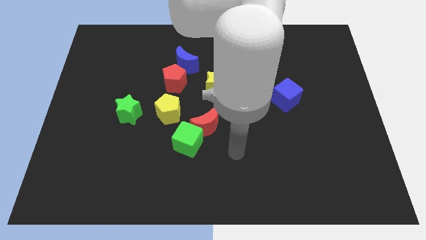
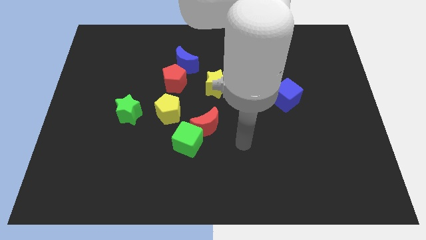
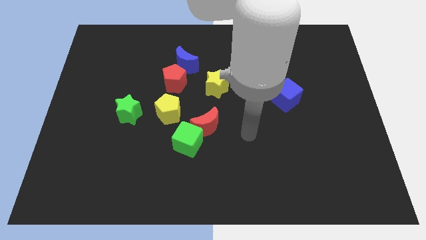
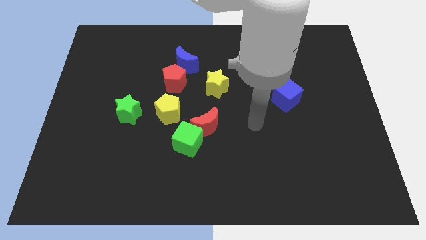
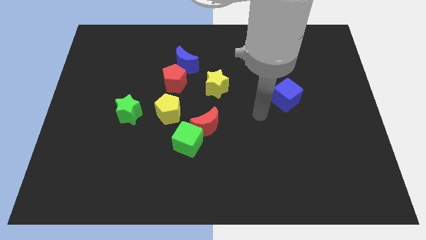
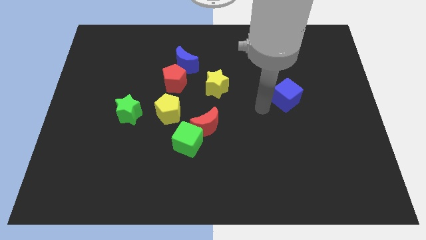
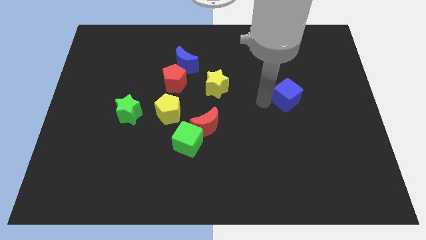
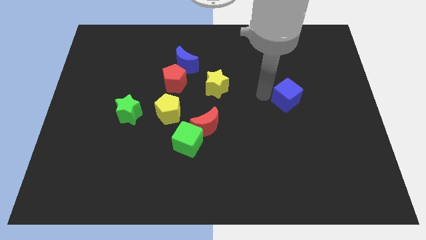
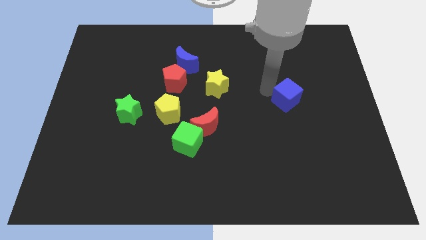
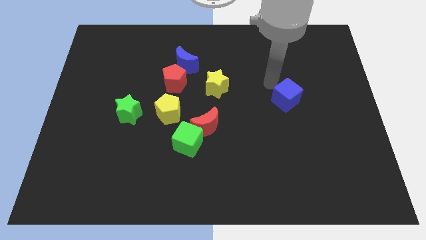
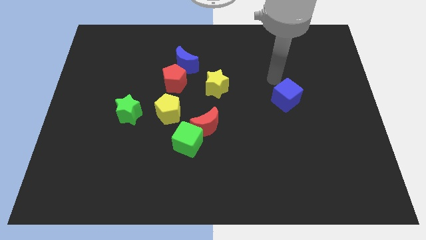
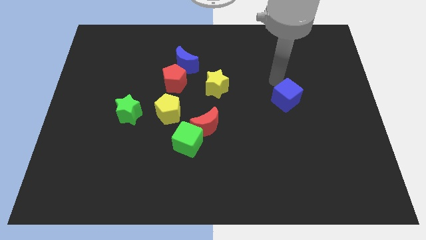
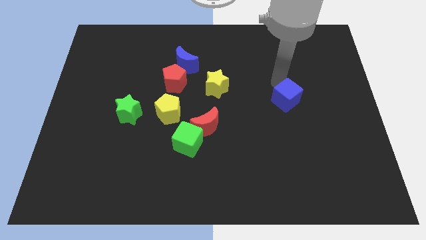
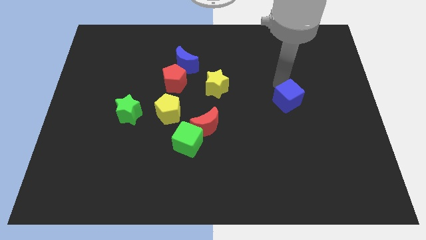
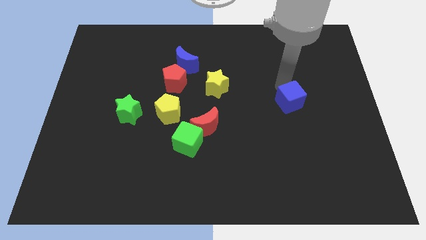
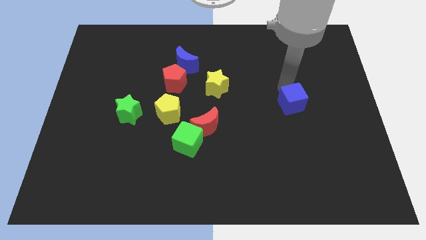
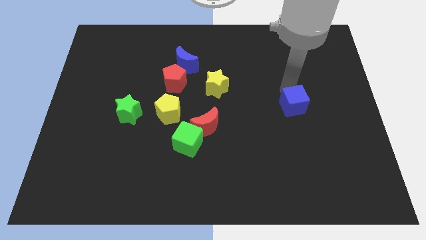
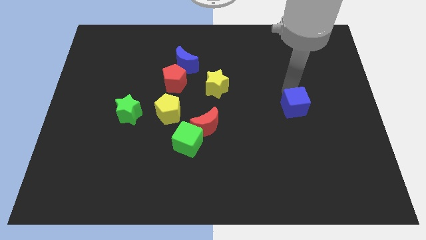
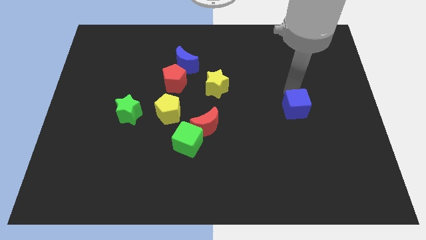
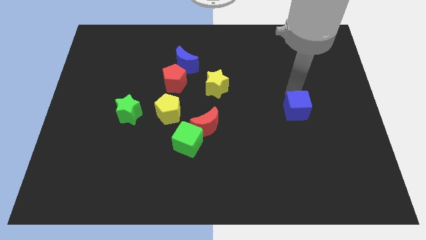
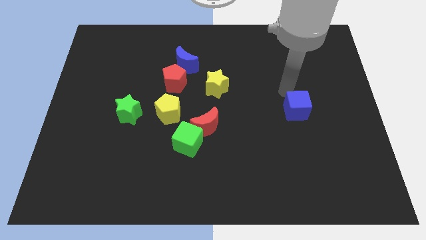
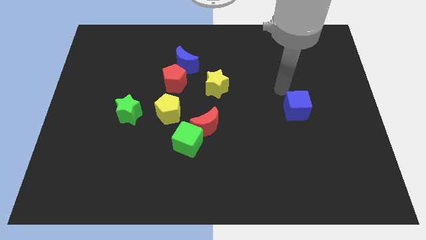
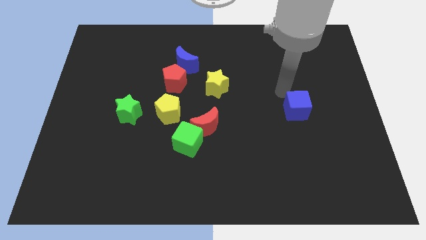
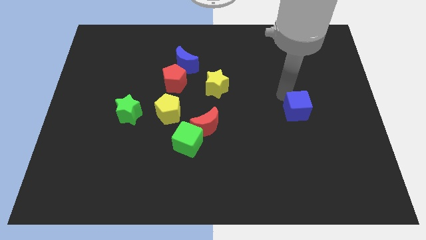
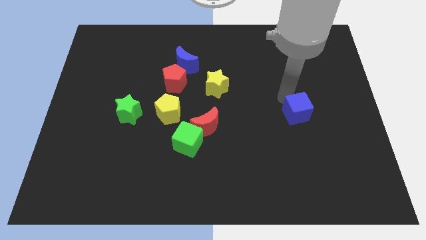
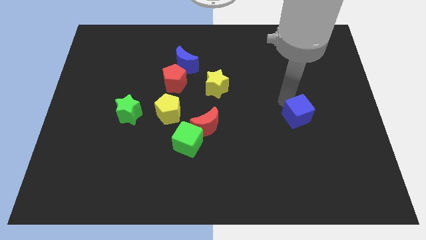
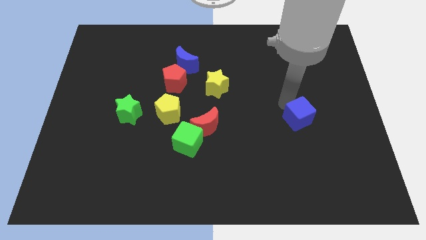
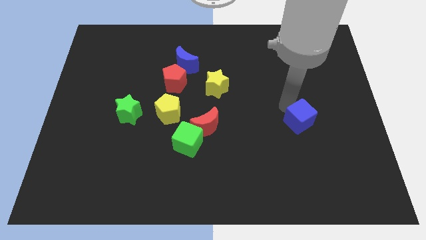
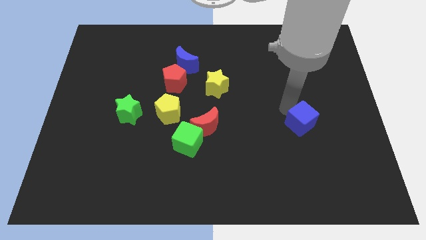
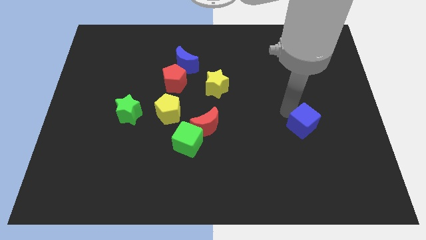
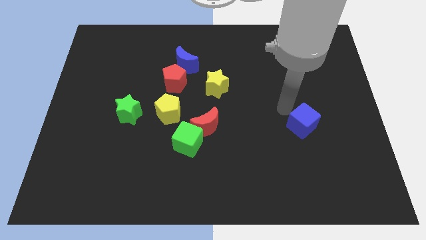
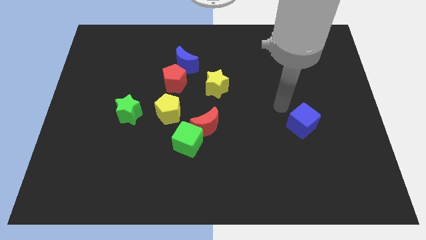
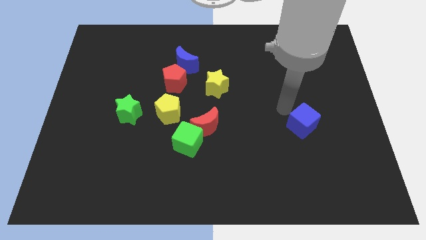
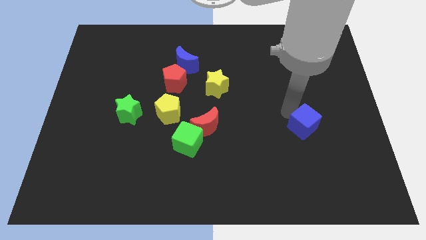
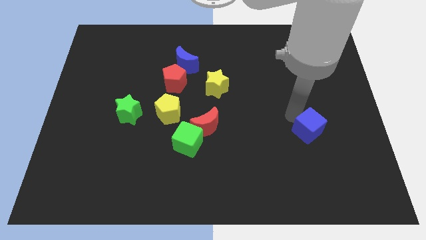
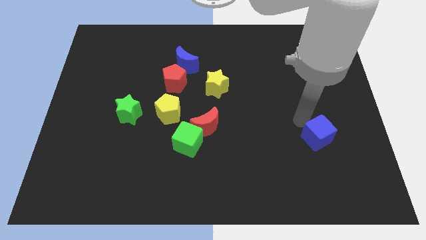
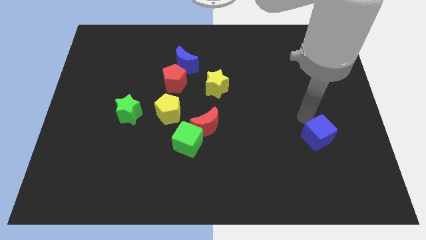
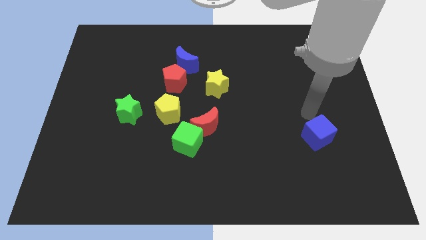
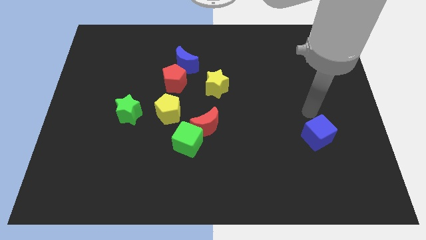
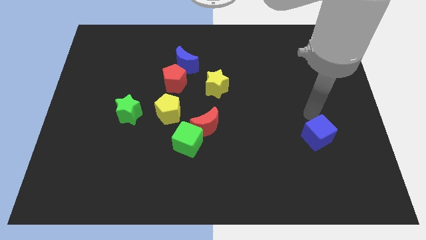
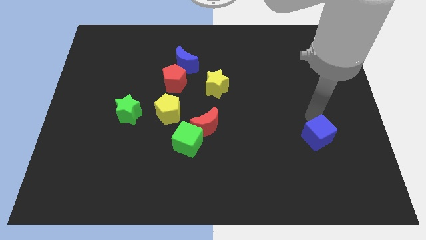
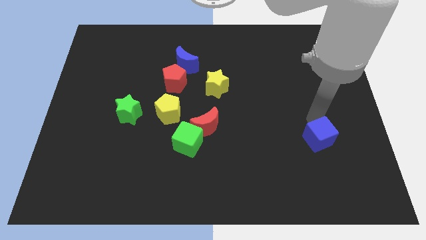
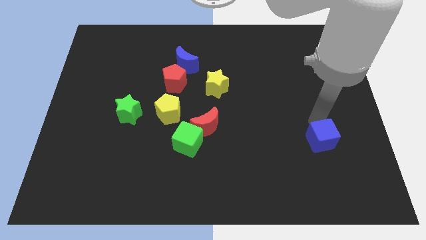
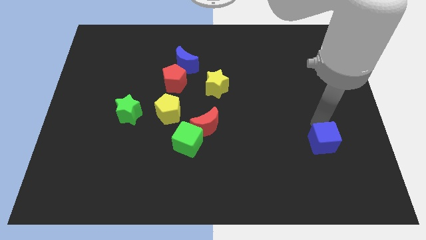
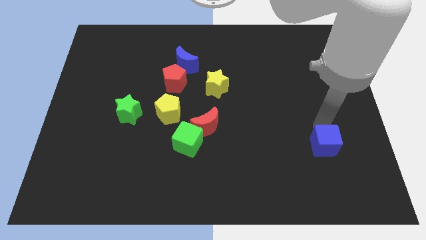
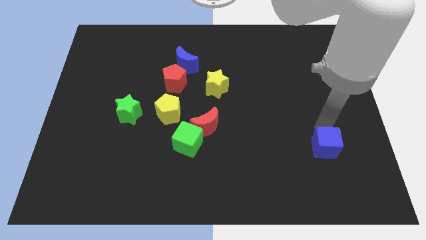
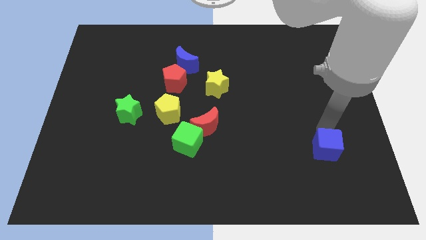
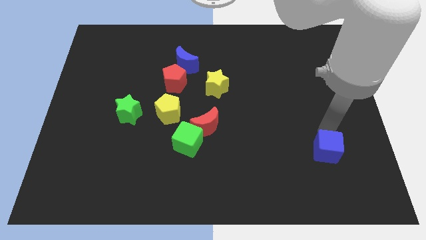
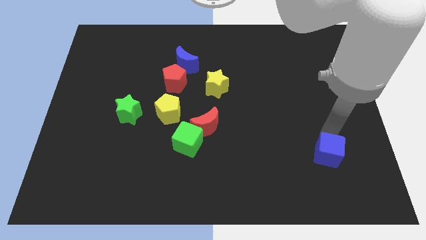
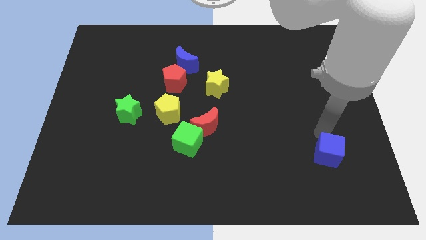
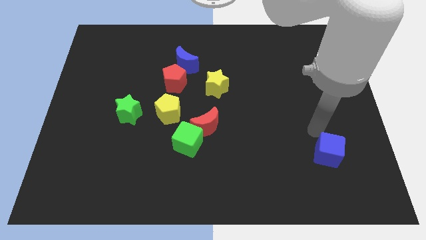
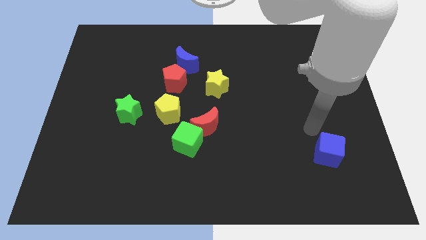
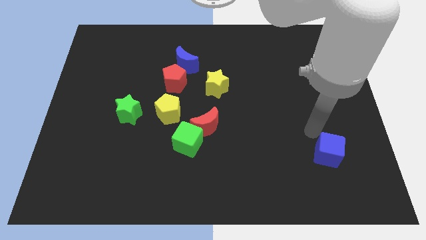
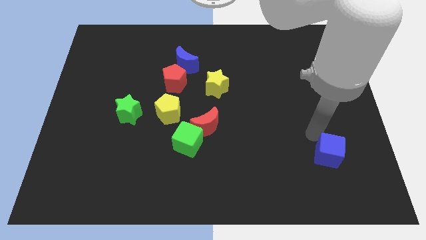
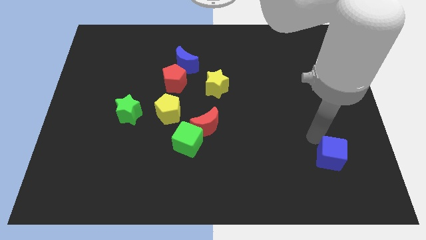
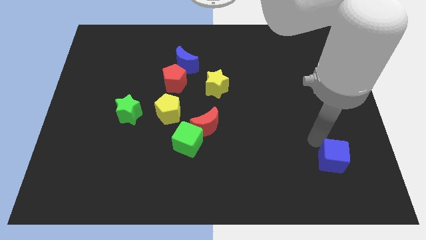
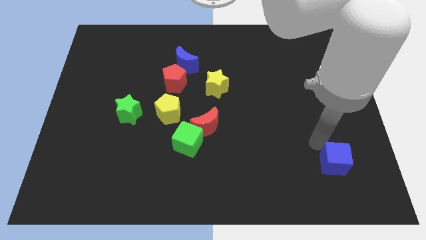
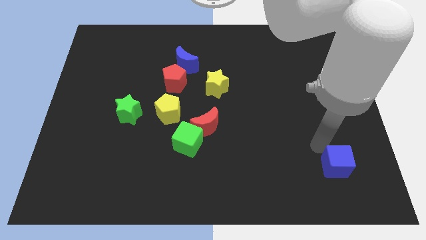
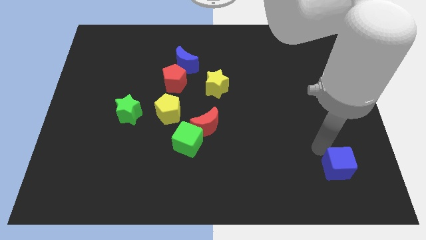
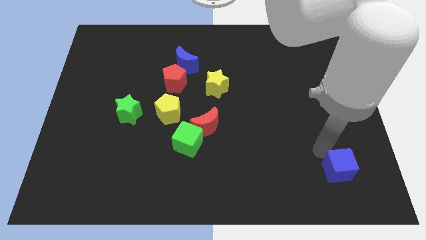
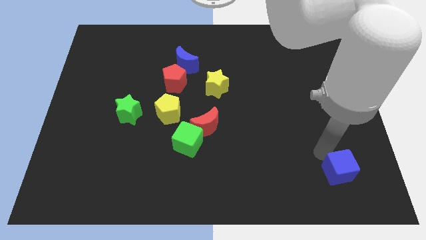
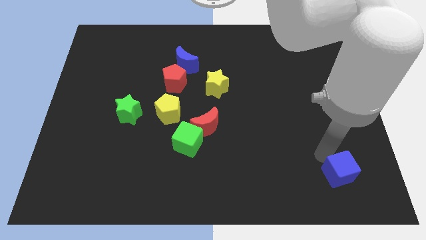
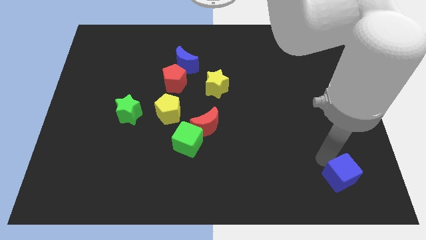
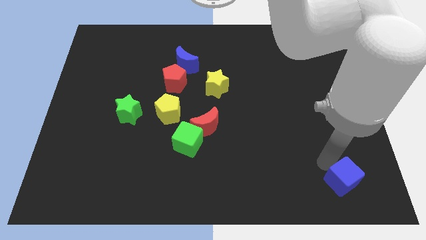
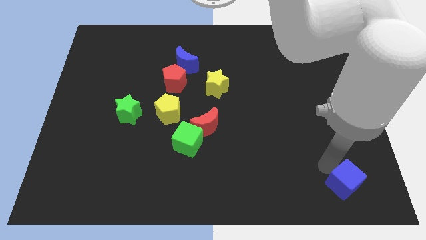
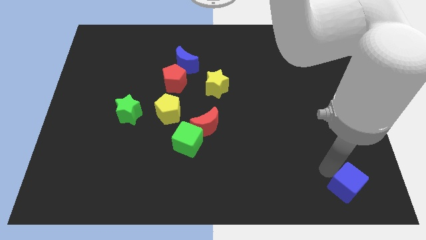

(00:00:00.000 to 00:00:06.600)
move the blue cube to the bottom right of the board

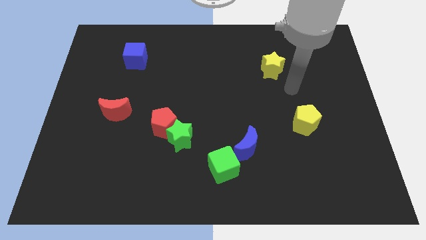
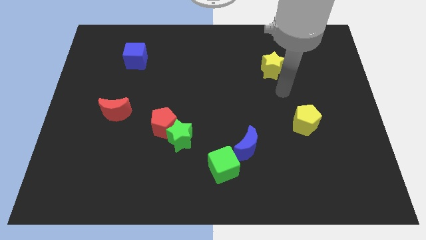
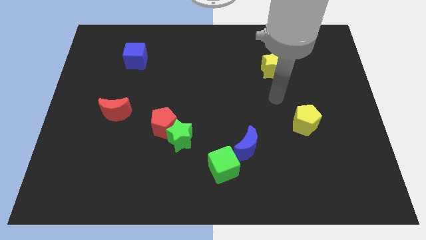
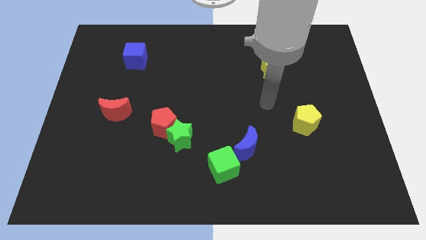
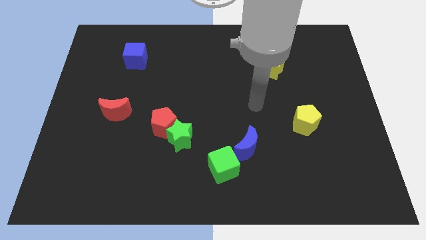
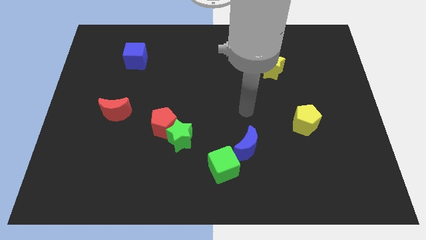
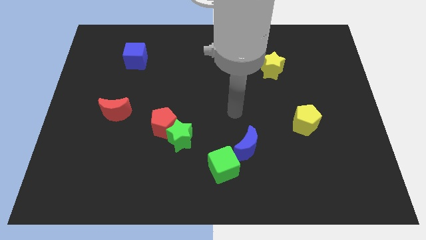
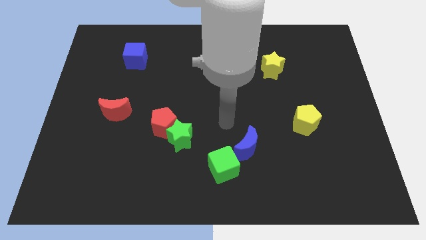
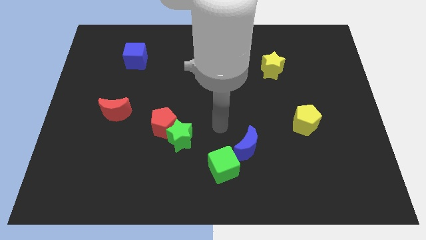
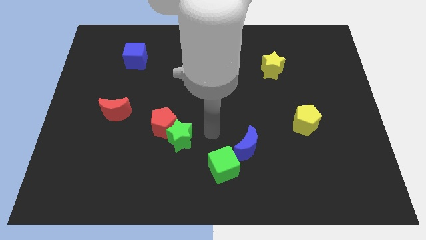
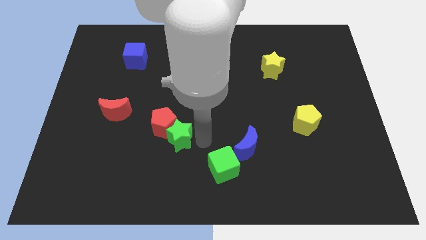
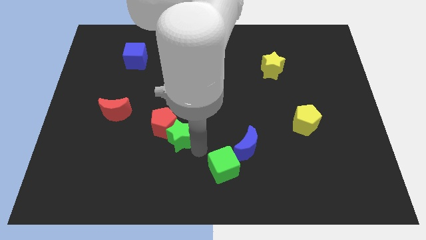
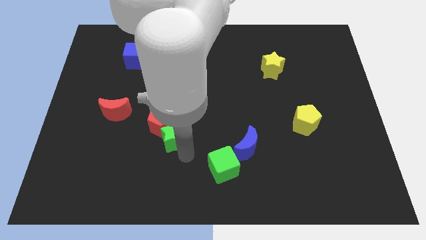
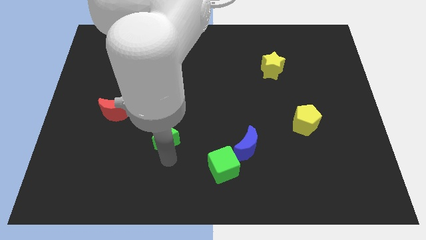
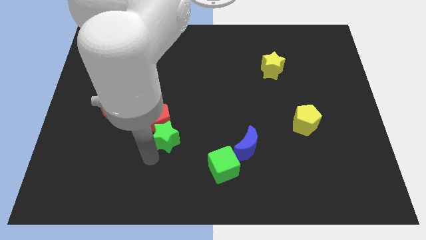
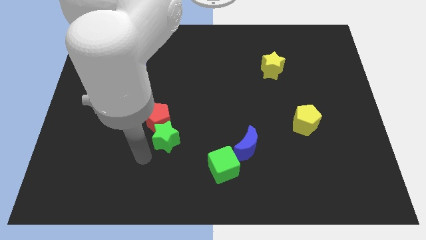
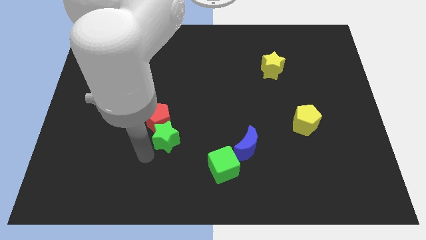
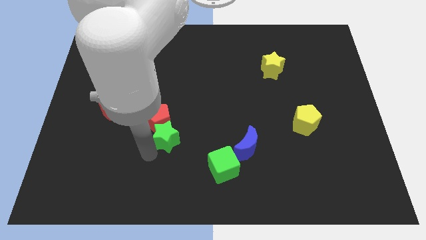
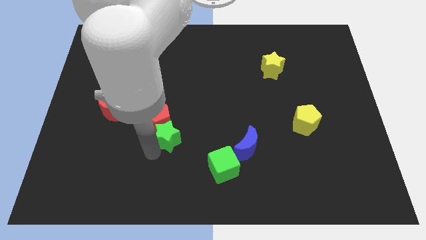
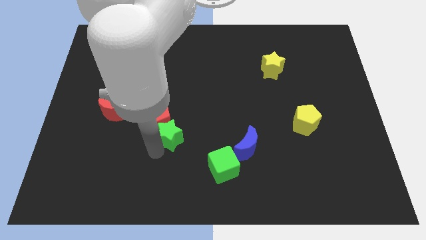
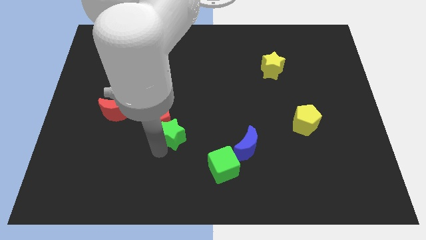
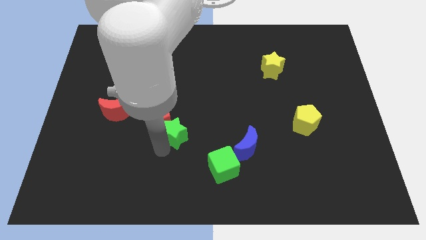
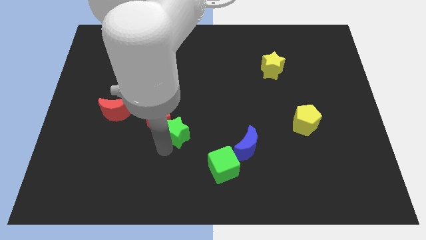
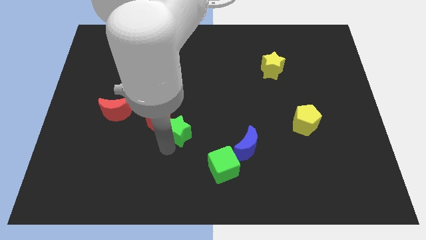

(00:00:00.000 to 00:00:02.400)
move the green star to the middle
